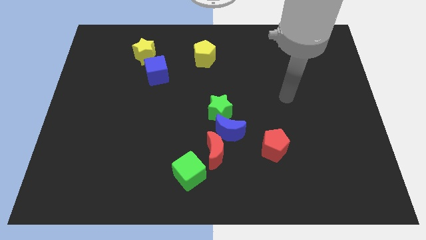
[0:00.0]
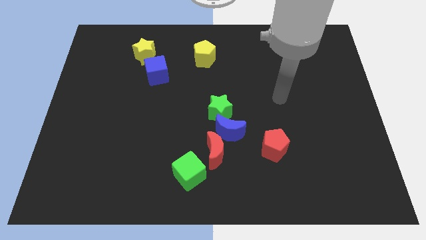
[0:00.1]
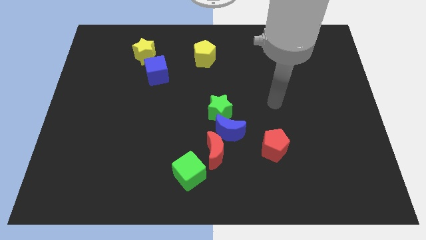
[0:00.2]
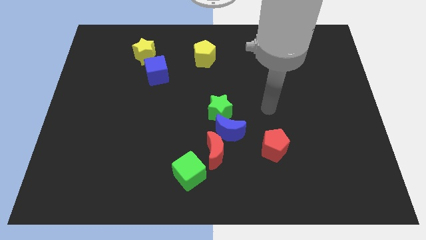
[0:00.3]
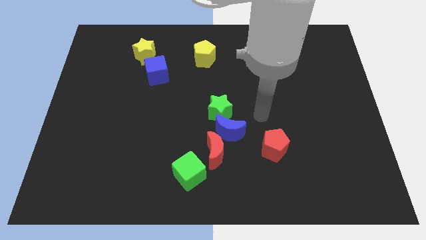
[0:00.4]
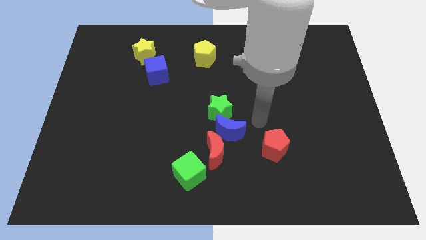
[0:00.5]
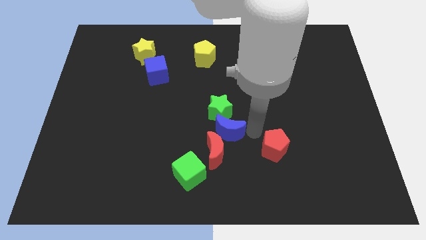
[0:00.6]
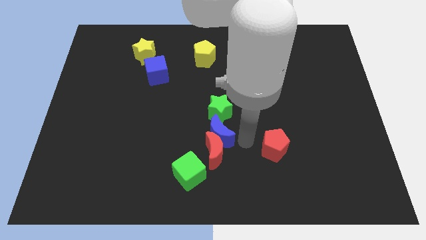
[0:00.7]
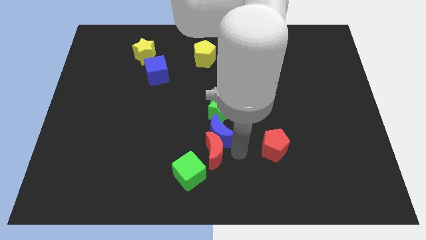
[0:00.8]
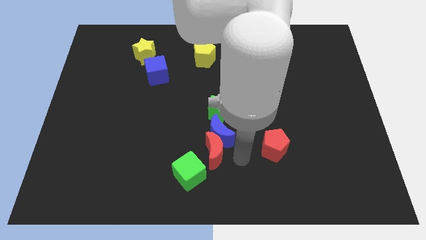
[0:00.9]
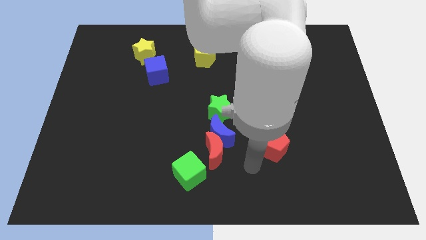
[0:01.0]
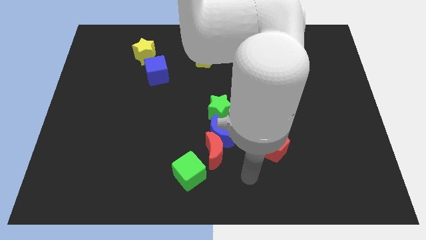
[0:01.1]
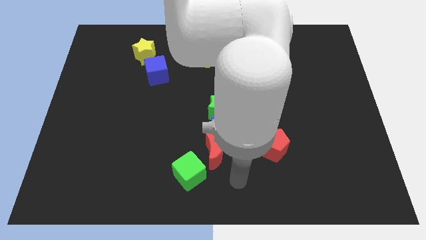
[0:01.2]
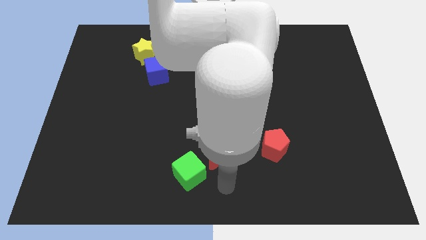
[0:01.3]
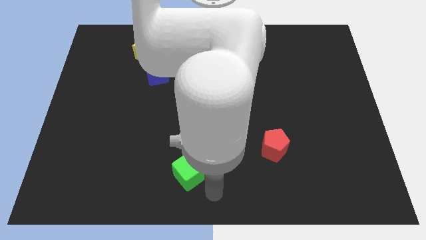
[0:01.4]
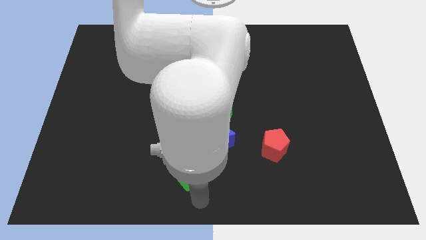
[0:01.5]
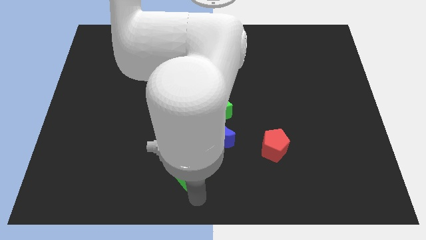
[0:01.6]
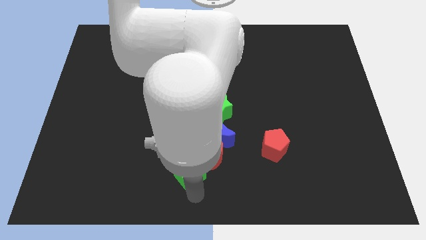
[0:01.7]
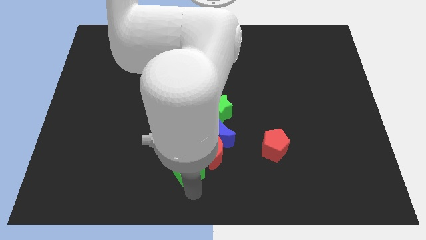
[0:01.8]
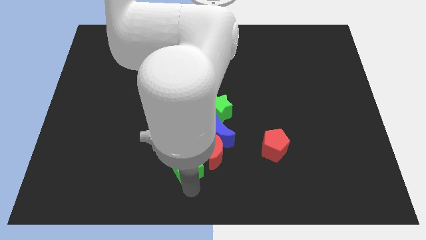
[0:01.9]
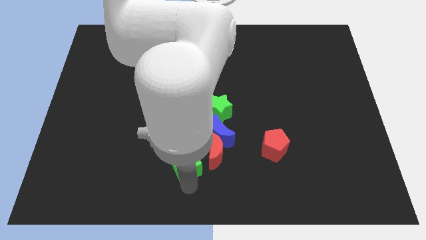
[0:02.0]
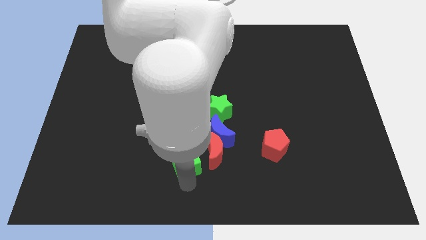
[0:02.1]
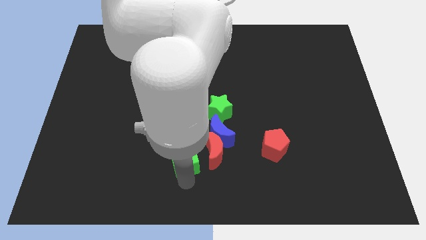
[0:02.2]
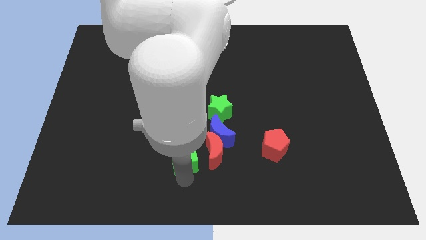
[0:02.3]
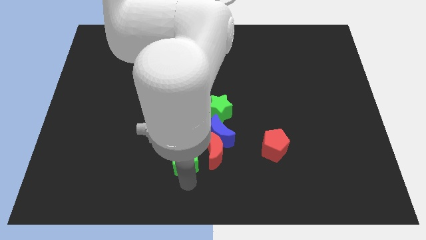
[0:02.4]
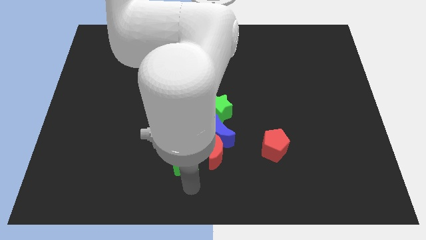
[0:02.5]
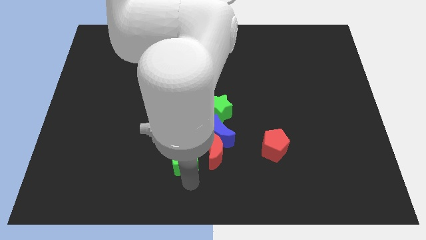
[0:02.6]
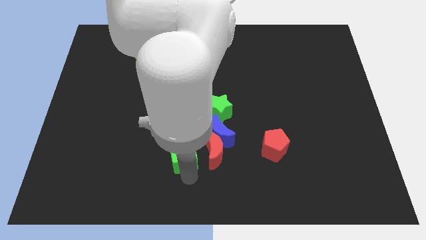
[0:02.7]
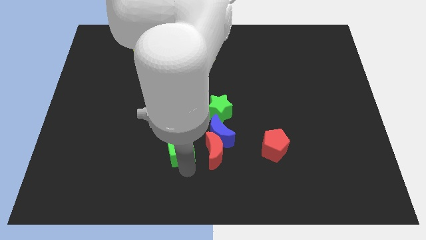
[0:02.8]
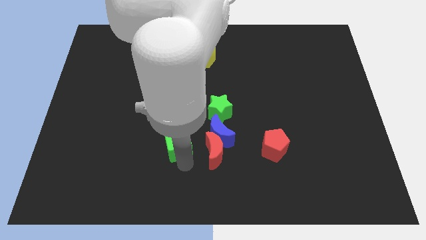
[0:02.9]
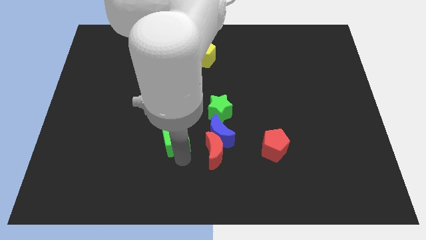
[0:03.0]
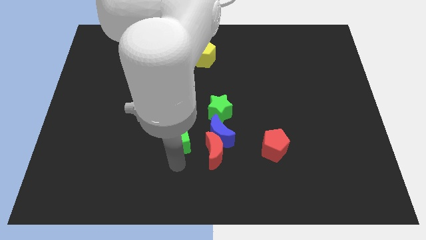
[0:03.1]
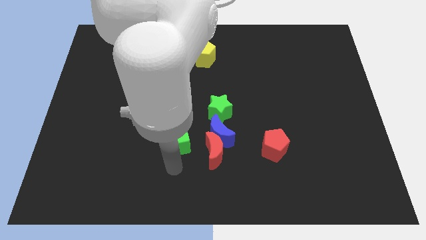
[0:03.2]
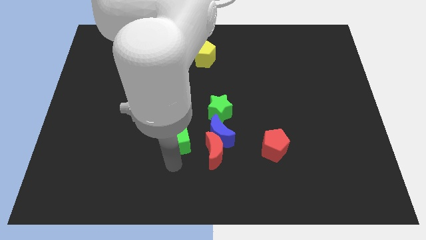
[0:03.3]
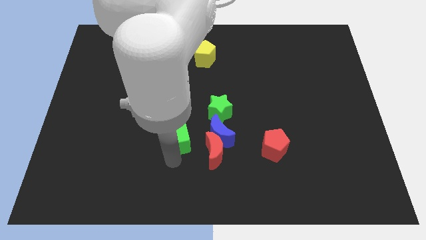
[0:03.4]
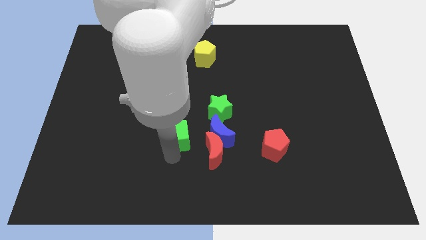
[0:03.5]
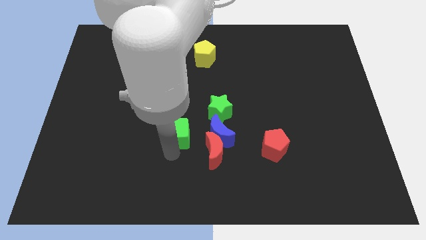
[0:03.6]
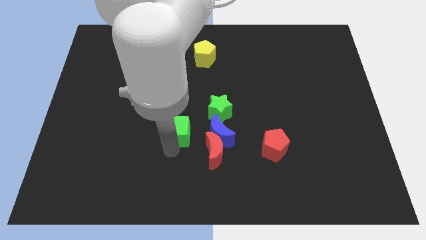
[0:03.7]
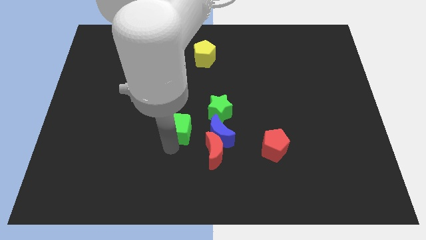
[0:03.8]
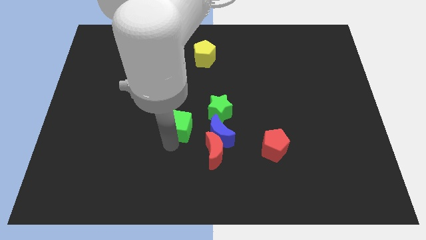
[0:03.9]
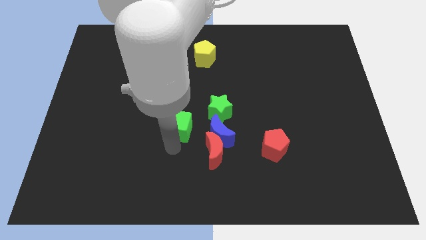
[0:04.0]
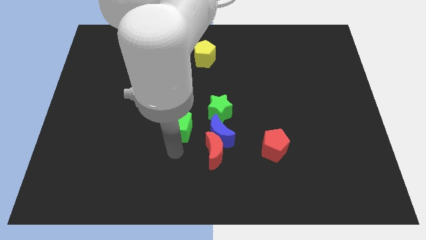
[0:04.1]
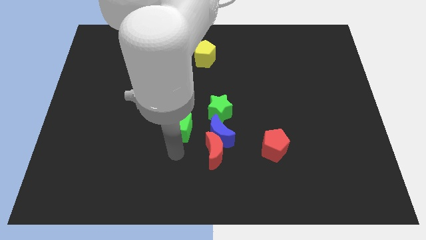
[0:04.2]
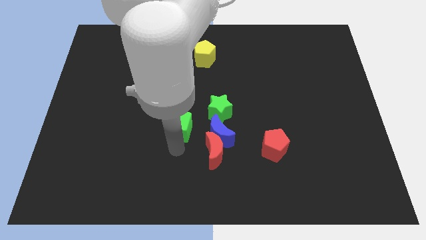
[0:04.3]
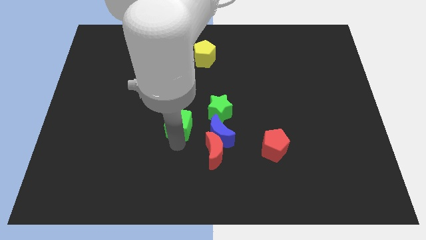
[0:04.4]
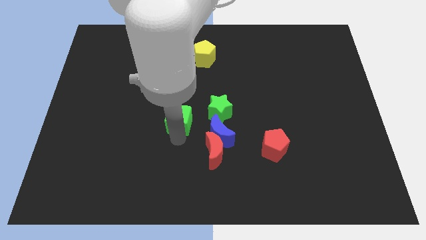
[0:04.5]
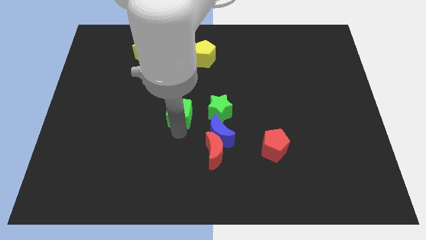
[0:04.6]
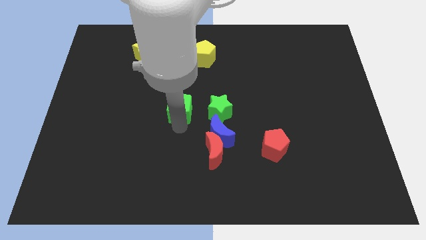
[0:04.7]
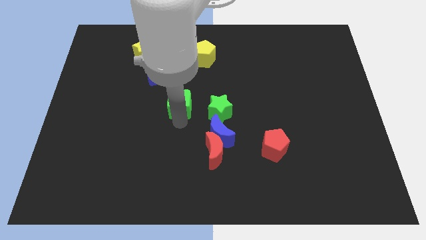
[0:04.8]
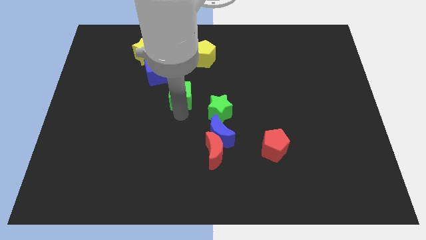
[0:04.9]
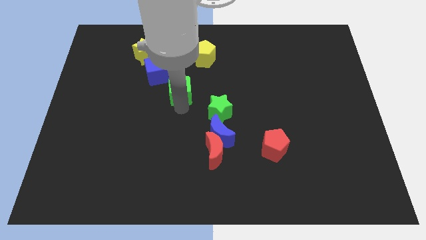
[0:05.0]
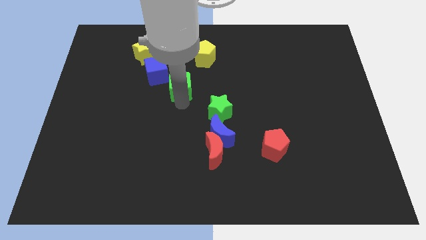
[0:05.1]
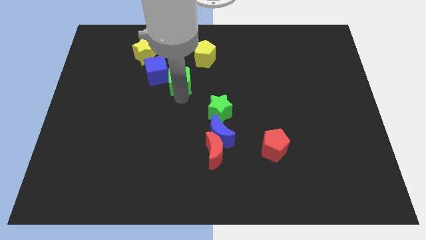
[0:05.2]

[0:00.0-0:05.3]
put the green cube diagonally down and to the left of the yellow pentagon

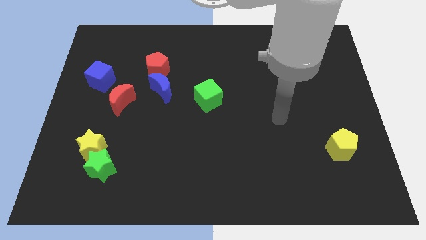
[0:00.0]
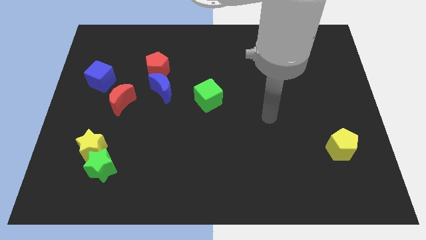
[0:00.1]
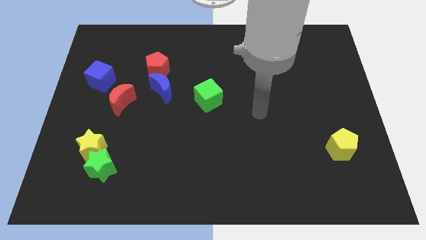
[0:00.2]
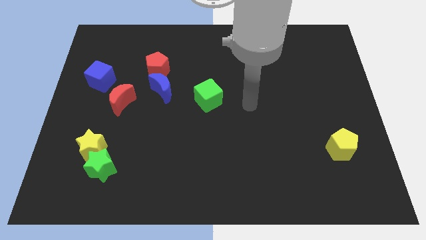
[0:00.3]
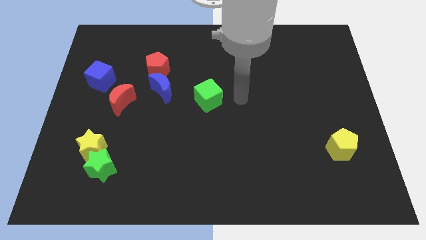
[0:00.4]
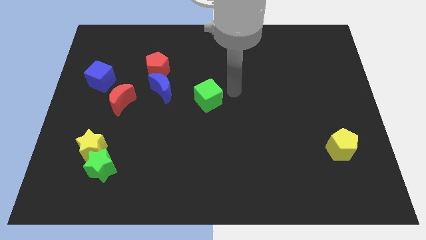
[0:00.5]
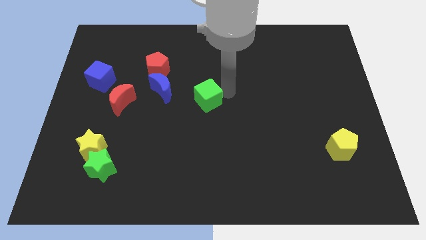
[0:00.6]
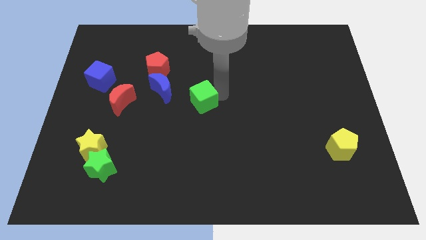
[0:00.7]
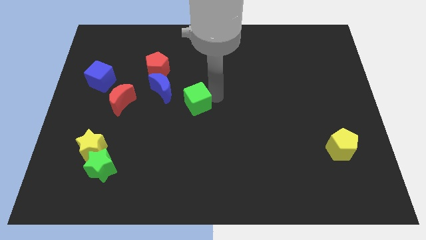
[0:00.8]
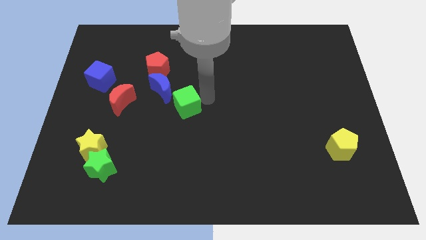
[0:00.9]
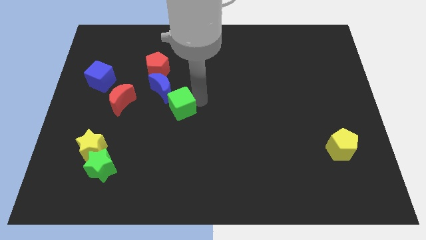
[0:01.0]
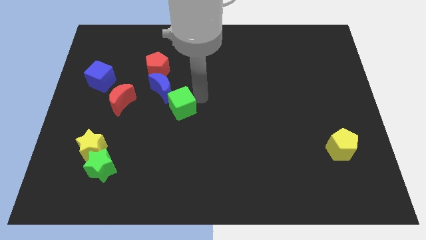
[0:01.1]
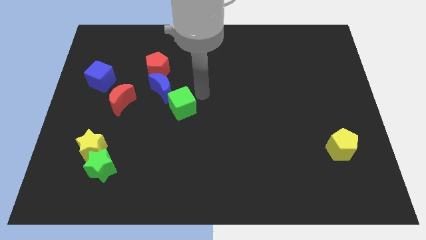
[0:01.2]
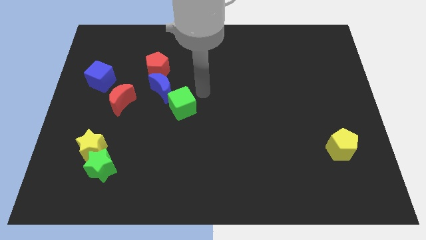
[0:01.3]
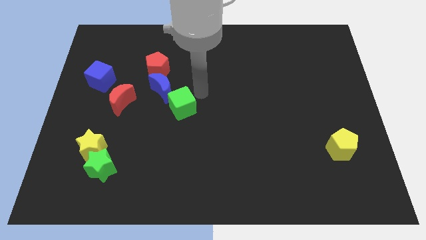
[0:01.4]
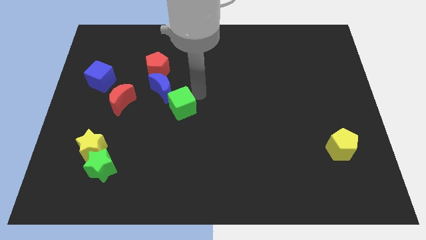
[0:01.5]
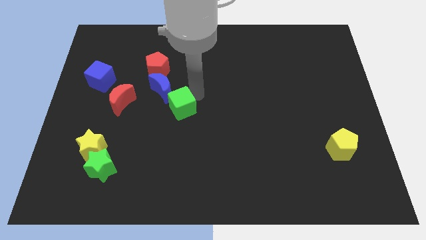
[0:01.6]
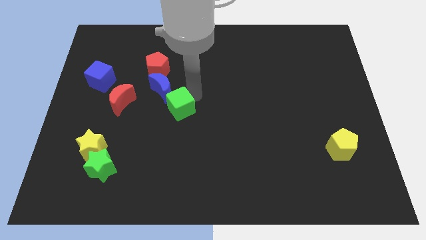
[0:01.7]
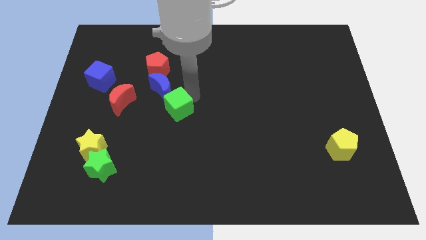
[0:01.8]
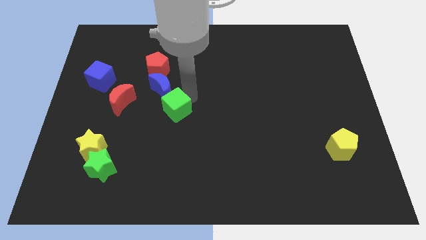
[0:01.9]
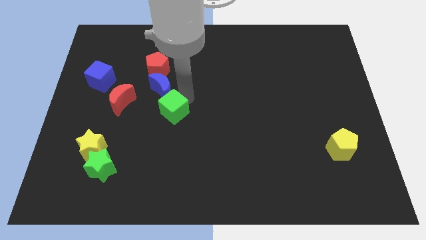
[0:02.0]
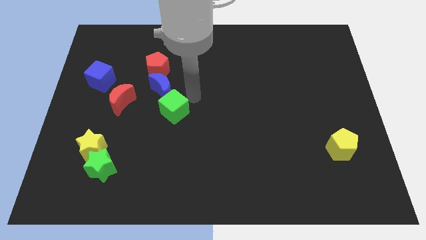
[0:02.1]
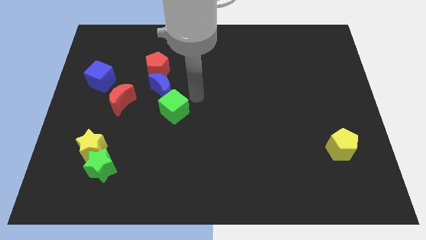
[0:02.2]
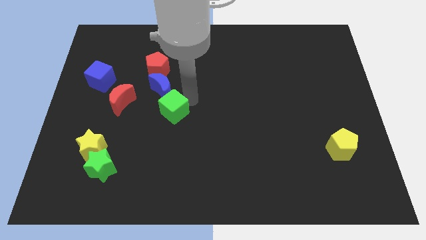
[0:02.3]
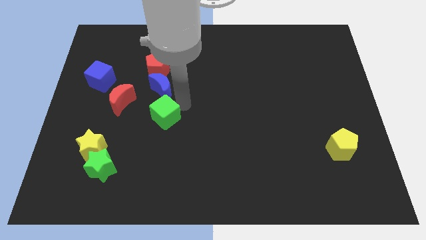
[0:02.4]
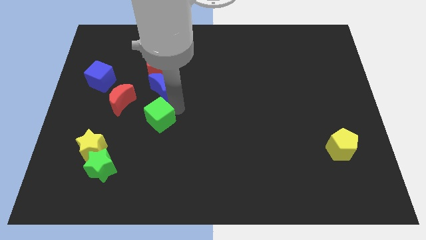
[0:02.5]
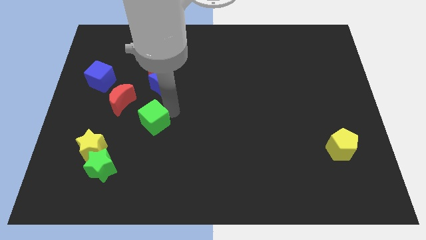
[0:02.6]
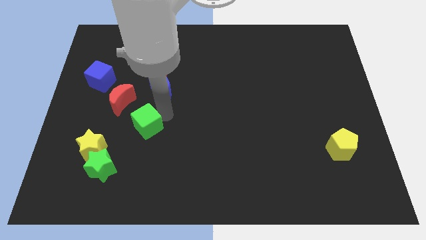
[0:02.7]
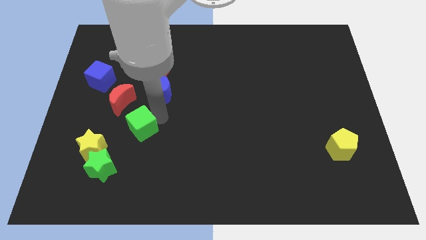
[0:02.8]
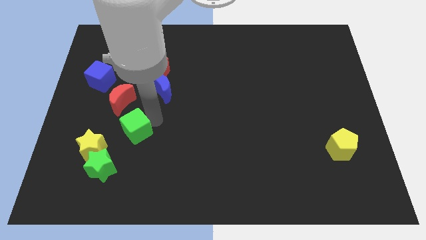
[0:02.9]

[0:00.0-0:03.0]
move the green cube to the bottom side of the red moon
